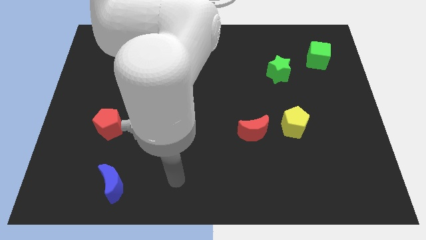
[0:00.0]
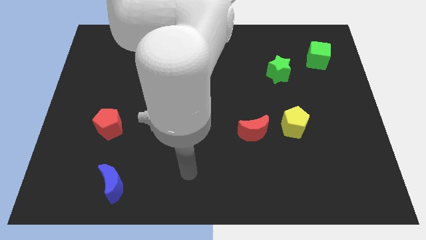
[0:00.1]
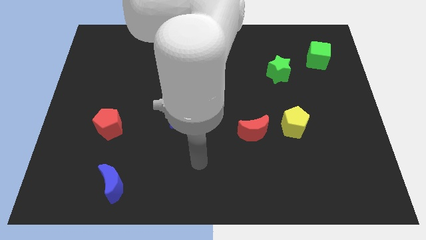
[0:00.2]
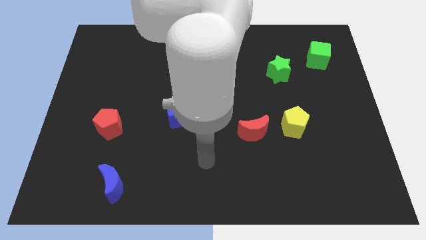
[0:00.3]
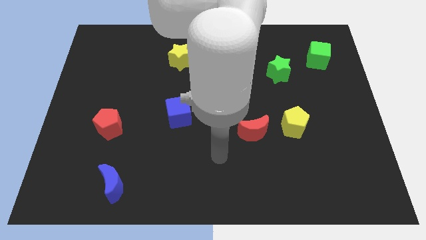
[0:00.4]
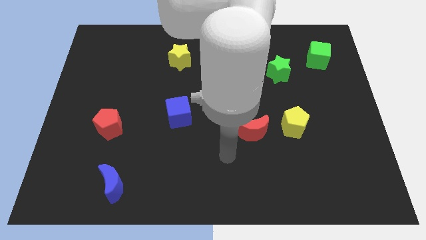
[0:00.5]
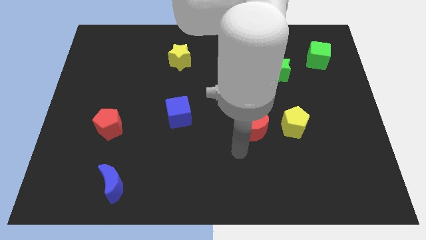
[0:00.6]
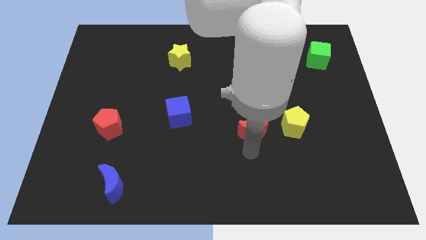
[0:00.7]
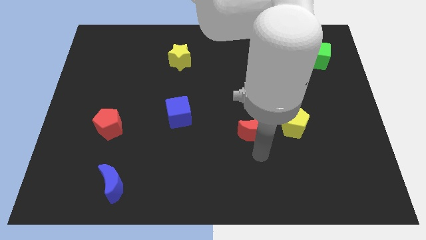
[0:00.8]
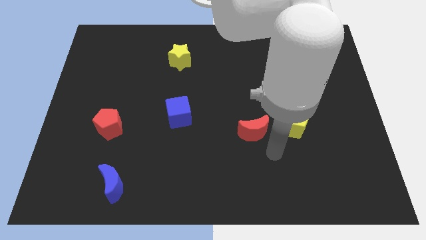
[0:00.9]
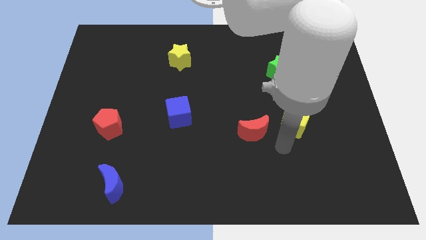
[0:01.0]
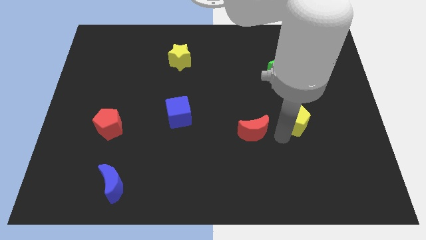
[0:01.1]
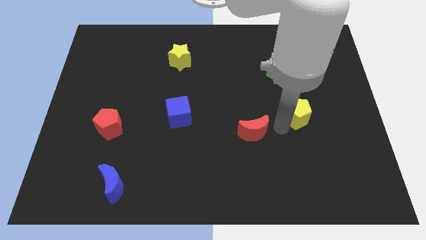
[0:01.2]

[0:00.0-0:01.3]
pull the red moon apart from the yellow pentagon

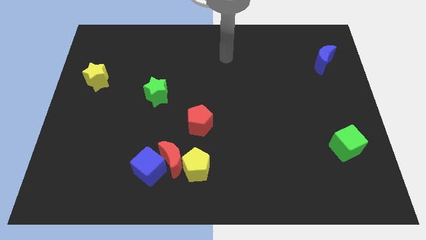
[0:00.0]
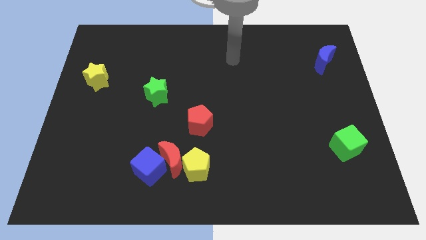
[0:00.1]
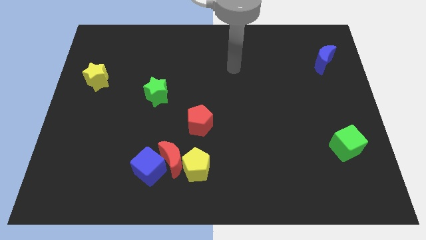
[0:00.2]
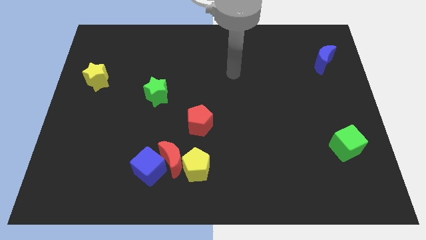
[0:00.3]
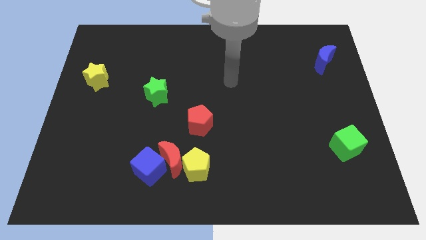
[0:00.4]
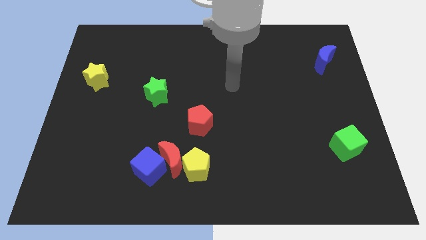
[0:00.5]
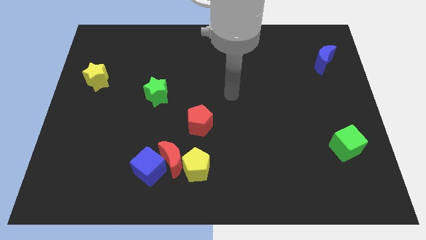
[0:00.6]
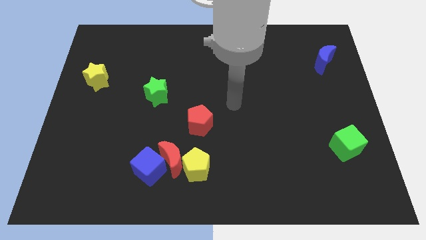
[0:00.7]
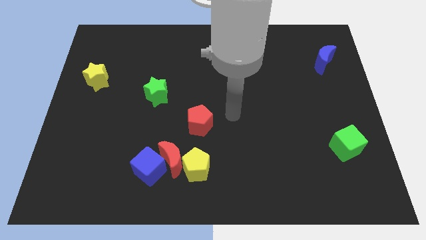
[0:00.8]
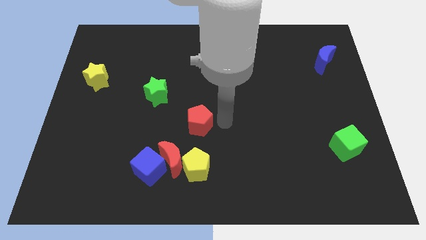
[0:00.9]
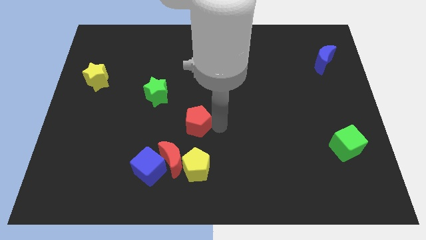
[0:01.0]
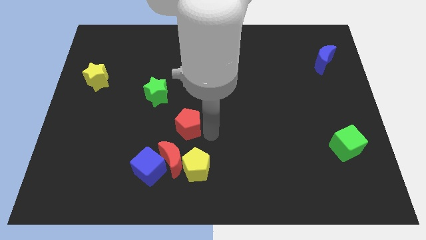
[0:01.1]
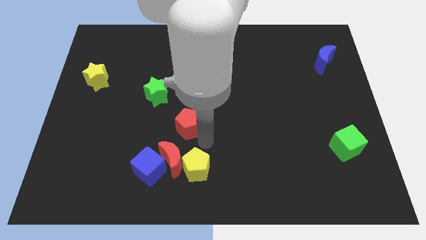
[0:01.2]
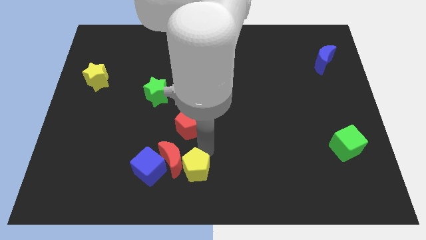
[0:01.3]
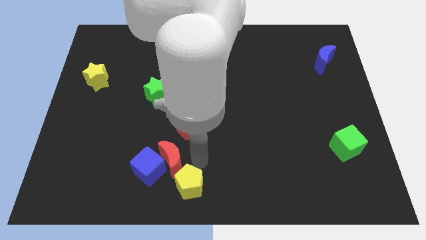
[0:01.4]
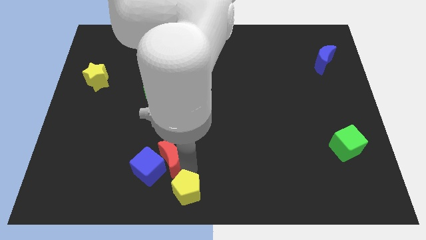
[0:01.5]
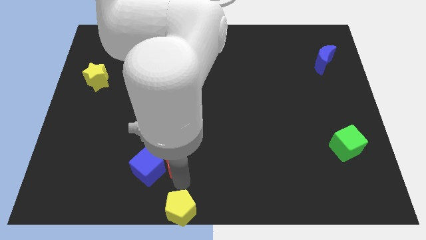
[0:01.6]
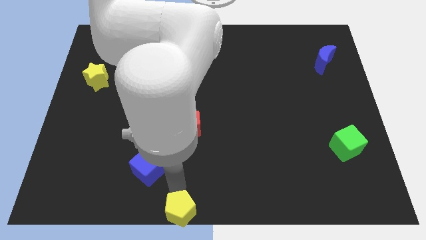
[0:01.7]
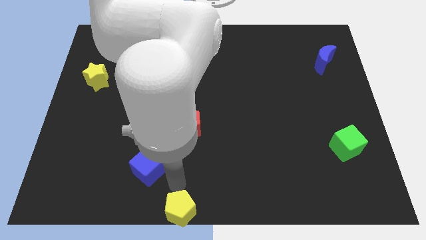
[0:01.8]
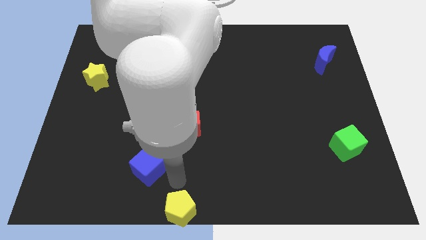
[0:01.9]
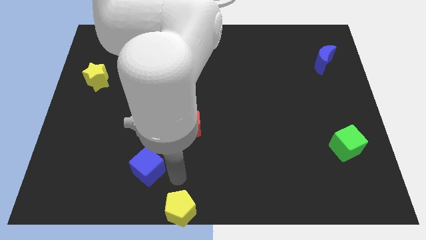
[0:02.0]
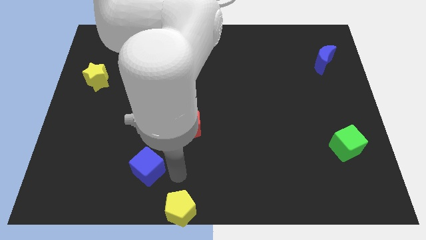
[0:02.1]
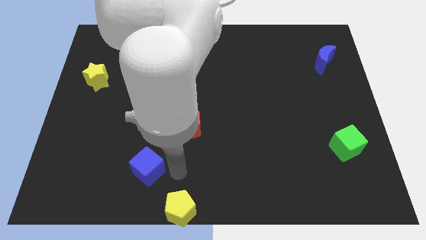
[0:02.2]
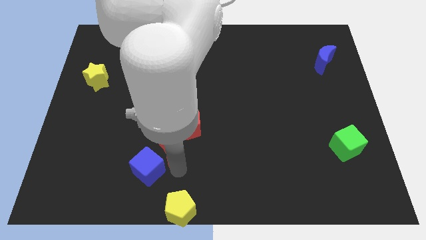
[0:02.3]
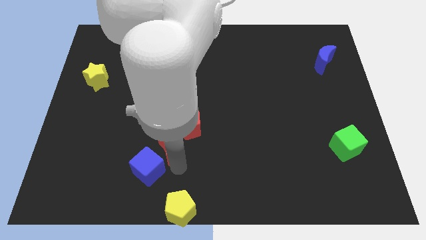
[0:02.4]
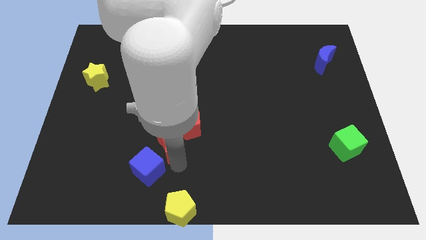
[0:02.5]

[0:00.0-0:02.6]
pull the red moon apart from the blue cube and yellow pentagon

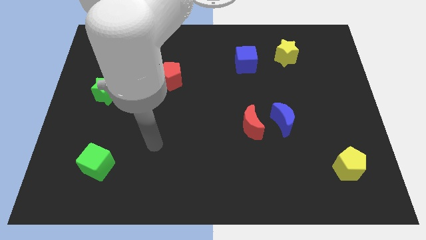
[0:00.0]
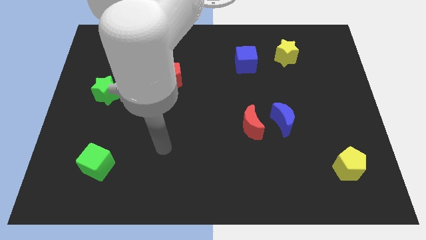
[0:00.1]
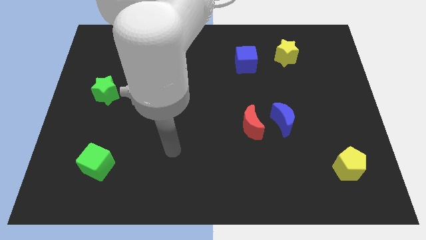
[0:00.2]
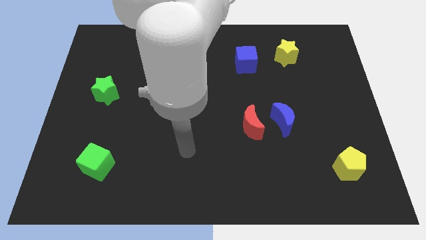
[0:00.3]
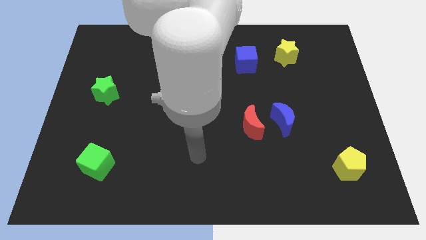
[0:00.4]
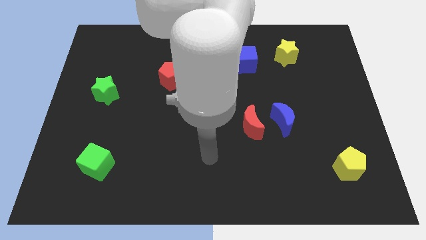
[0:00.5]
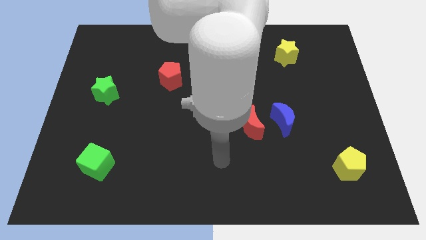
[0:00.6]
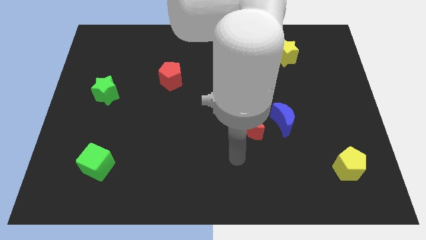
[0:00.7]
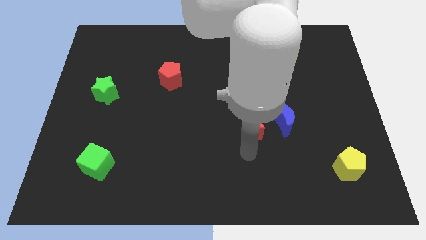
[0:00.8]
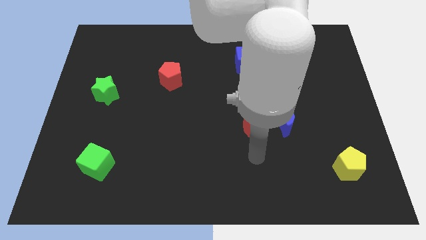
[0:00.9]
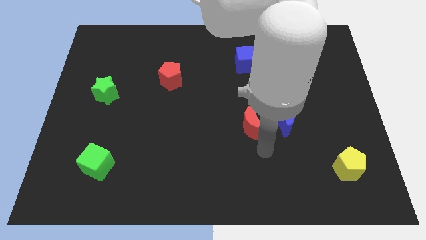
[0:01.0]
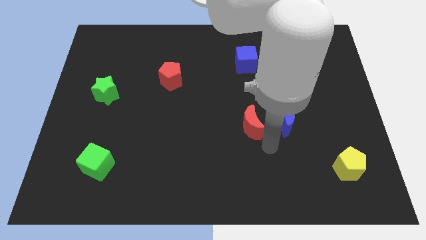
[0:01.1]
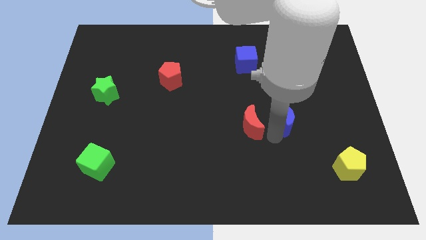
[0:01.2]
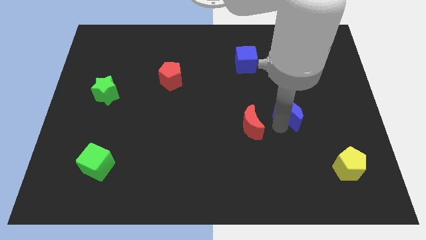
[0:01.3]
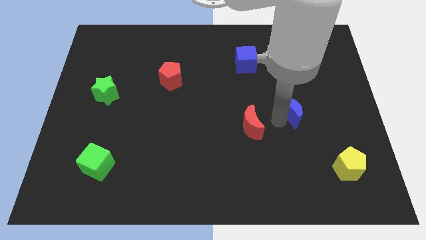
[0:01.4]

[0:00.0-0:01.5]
separate the red moon from the blue moon

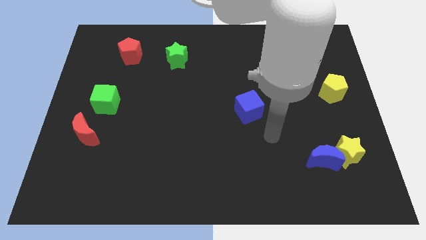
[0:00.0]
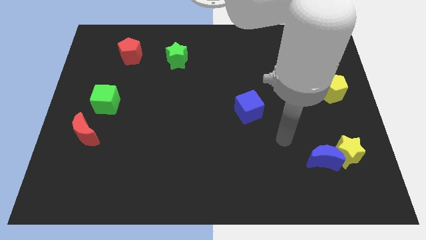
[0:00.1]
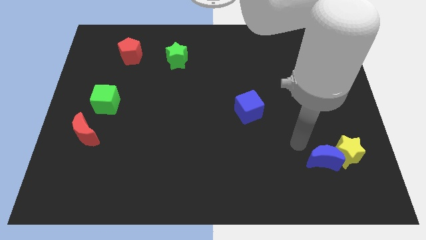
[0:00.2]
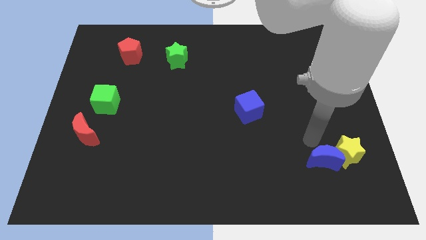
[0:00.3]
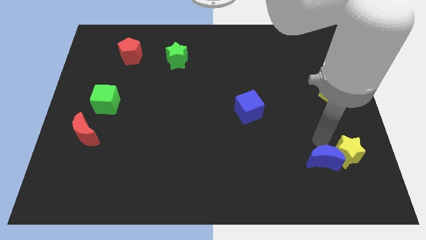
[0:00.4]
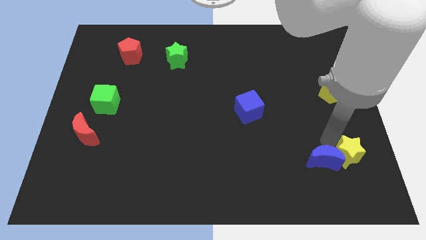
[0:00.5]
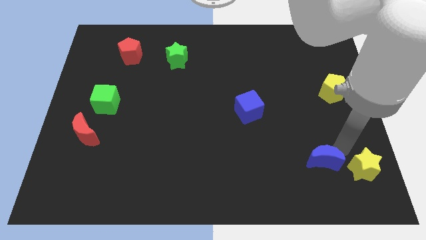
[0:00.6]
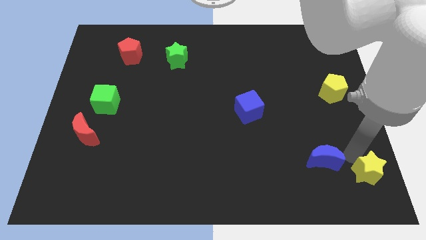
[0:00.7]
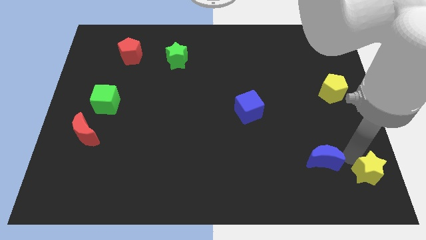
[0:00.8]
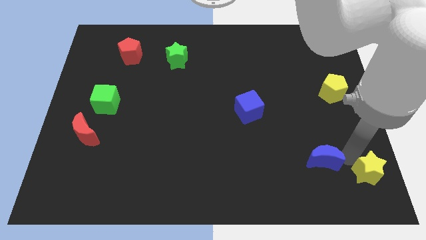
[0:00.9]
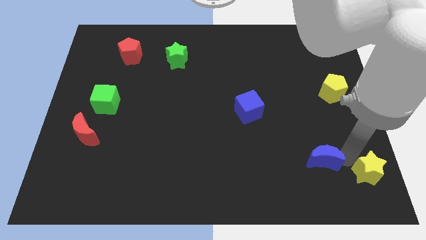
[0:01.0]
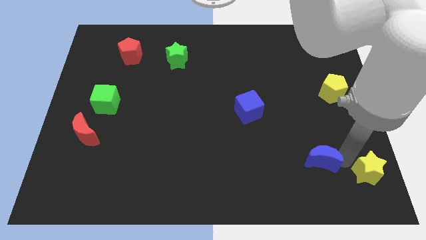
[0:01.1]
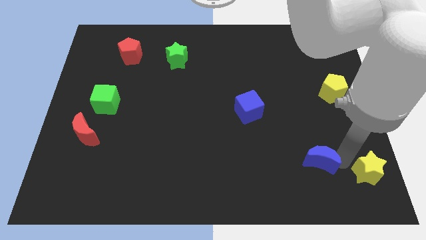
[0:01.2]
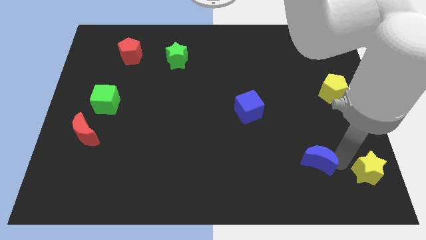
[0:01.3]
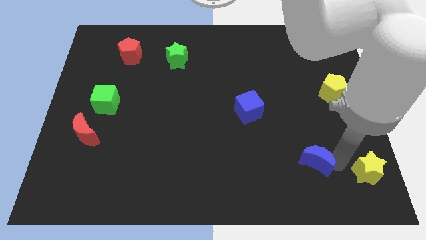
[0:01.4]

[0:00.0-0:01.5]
pull the blue moon apart from the yellow star

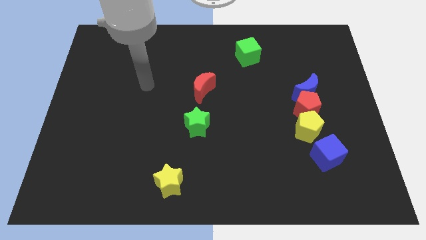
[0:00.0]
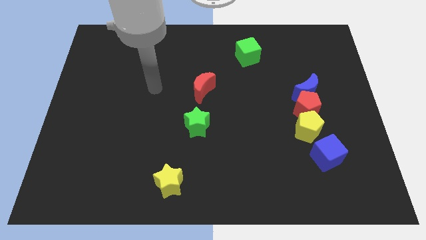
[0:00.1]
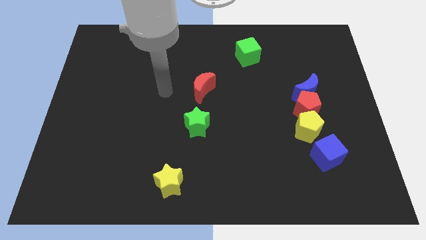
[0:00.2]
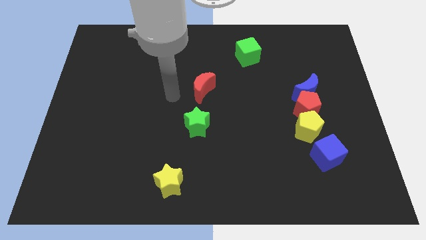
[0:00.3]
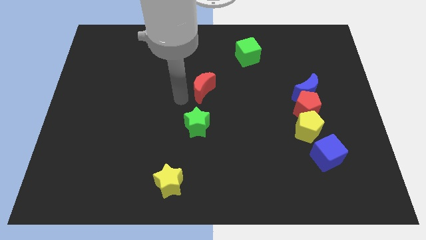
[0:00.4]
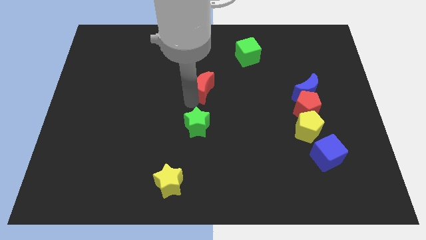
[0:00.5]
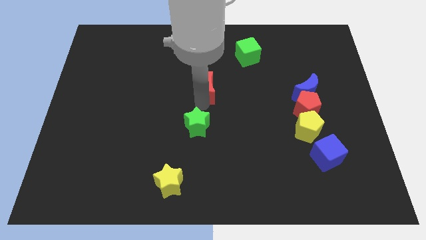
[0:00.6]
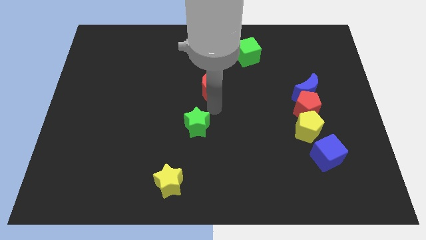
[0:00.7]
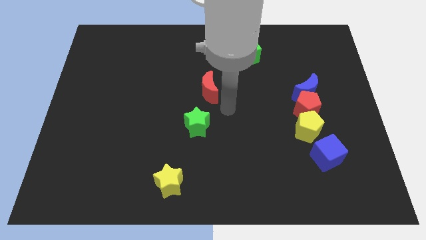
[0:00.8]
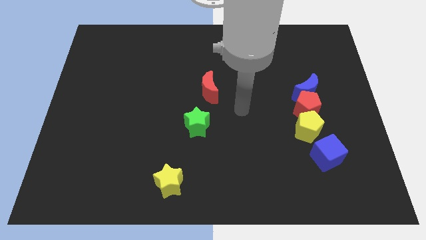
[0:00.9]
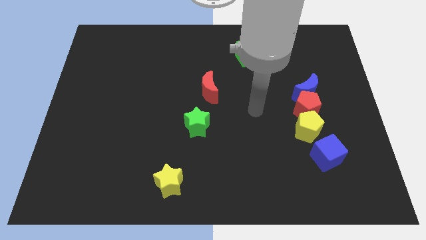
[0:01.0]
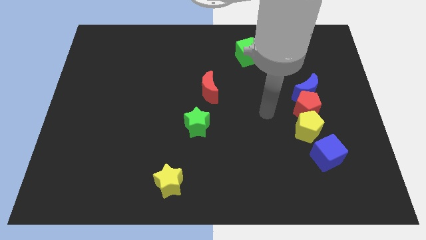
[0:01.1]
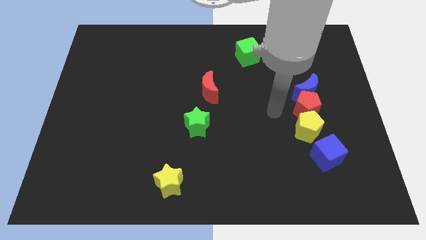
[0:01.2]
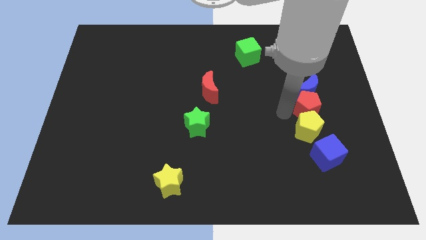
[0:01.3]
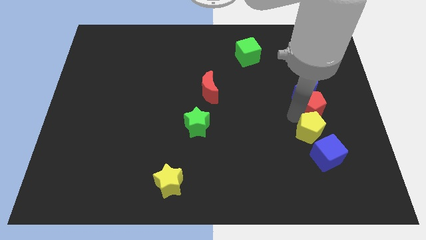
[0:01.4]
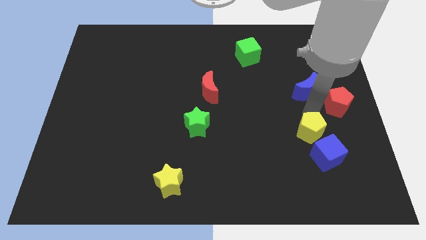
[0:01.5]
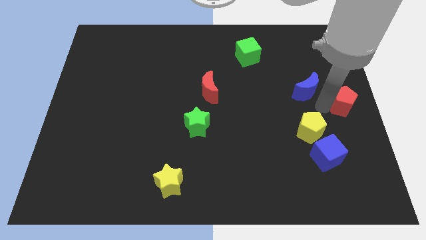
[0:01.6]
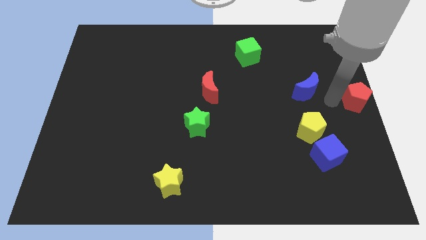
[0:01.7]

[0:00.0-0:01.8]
move the blue moon away from the red pentagon

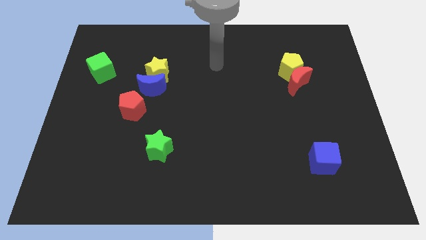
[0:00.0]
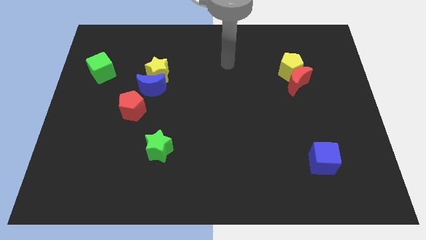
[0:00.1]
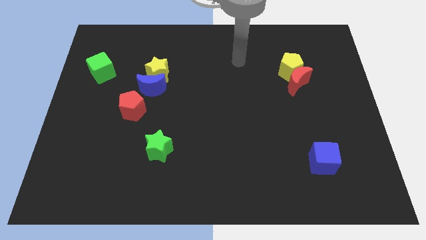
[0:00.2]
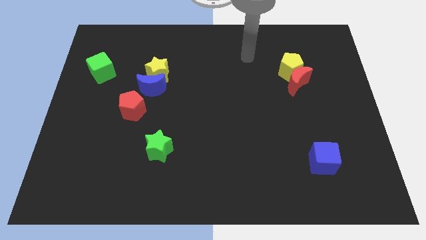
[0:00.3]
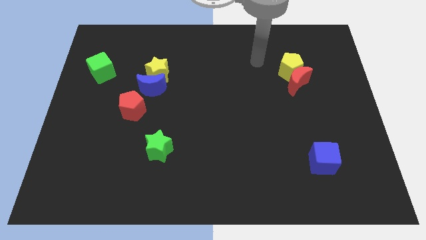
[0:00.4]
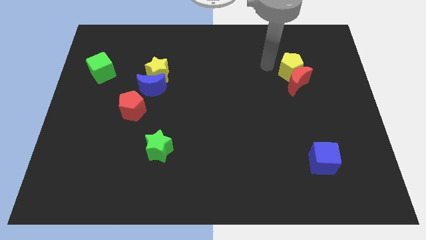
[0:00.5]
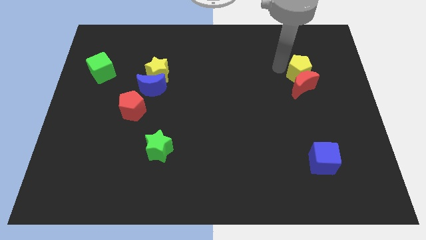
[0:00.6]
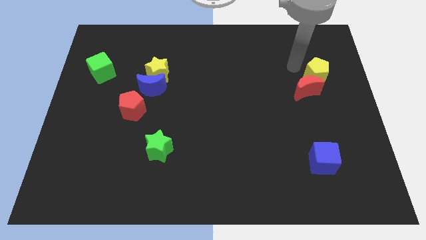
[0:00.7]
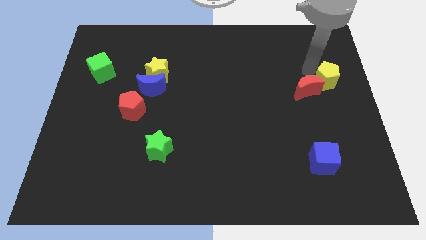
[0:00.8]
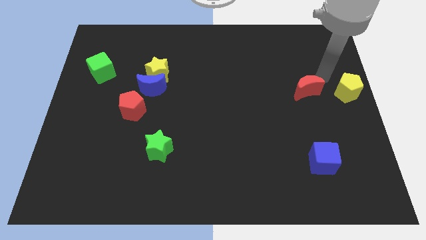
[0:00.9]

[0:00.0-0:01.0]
separate the red moon from the yellow pentagon
